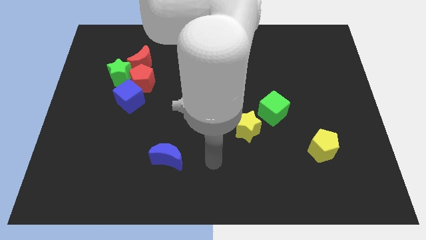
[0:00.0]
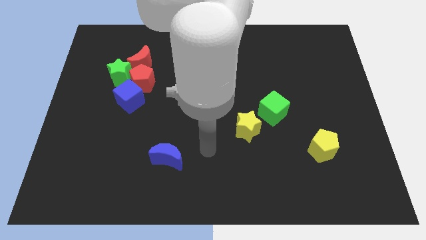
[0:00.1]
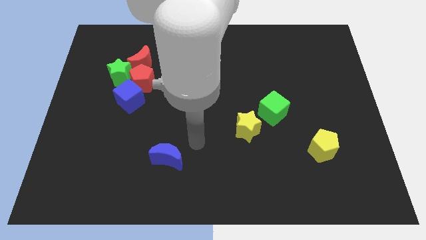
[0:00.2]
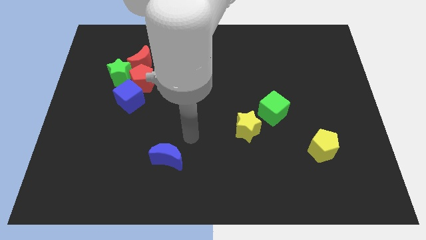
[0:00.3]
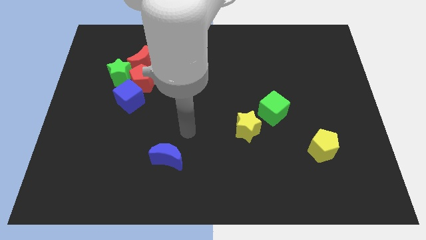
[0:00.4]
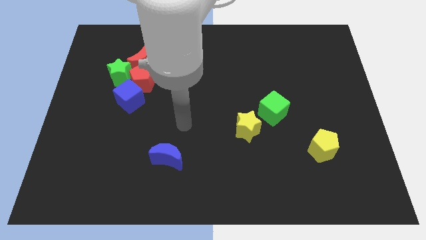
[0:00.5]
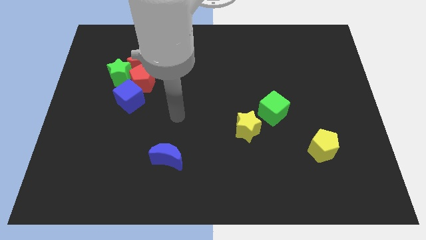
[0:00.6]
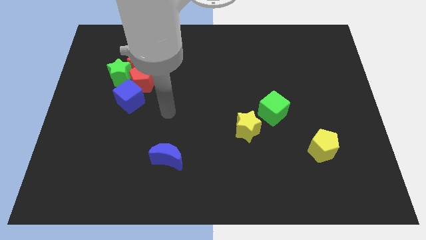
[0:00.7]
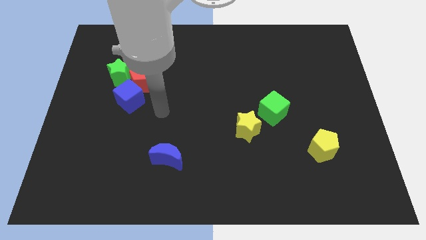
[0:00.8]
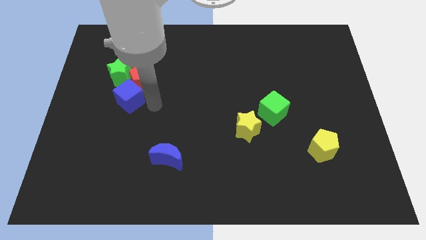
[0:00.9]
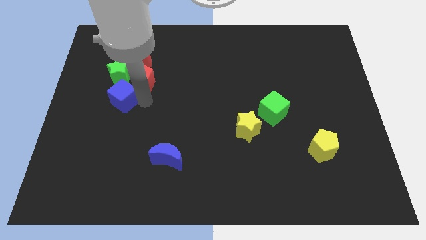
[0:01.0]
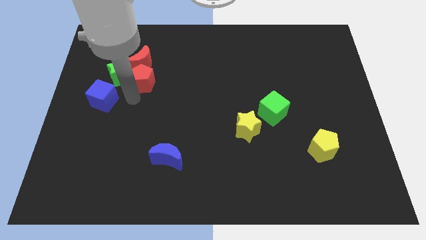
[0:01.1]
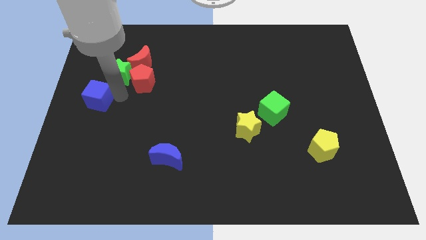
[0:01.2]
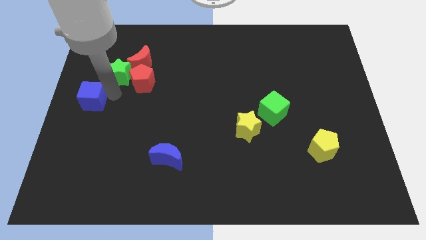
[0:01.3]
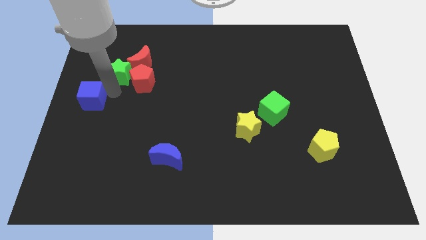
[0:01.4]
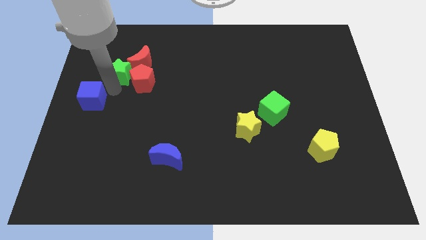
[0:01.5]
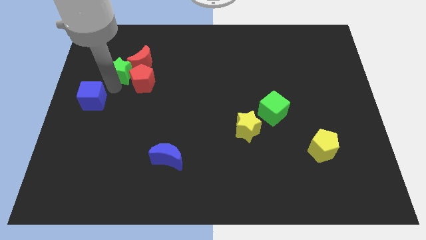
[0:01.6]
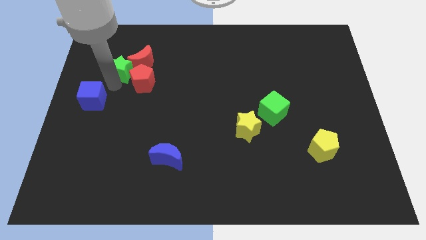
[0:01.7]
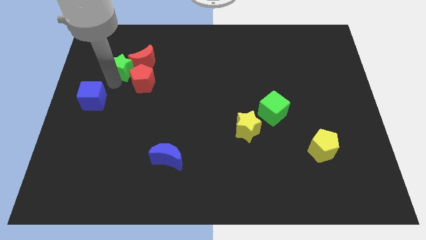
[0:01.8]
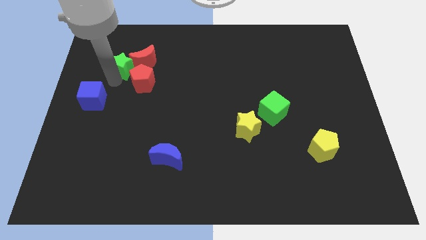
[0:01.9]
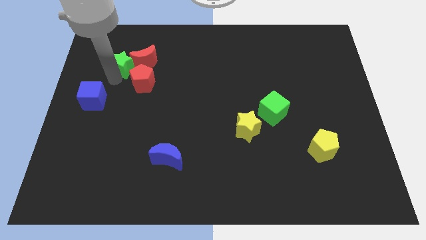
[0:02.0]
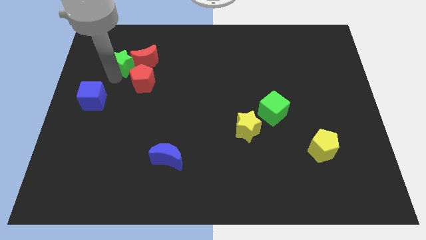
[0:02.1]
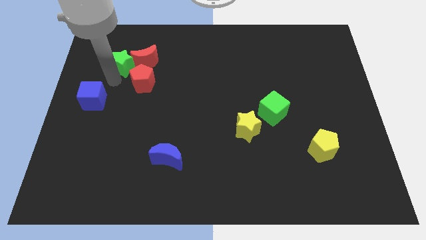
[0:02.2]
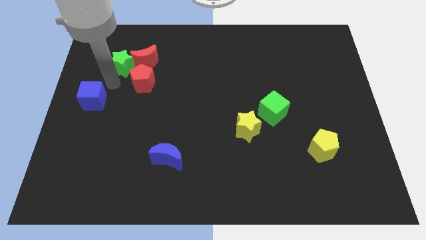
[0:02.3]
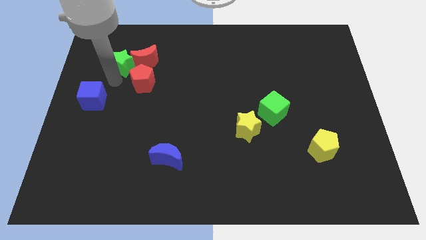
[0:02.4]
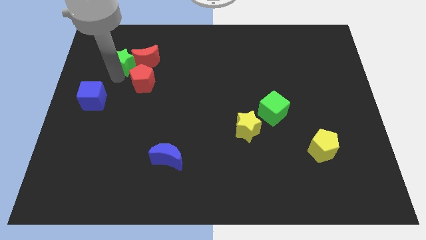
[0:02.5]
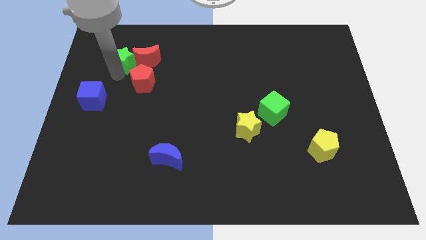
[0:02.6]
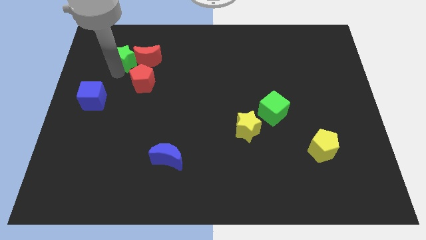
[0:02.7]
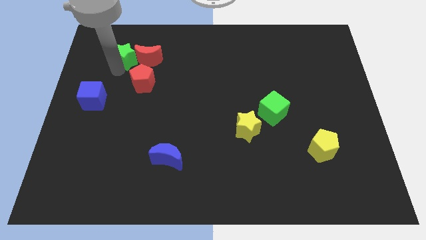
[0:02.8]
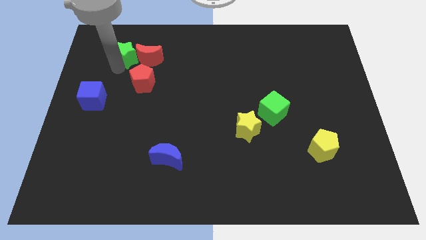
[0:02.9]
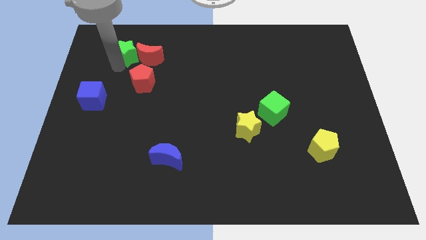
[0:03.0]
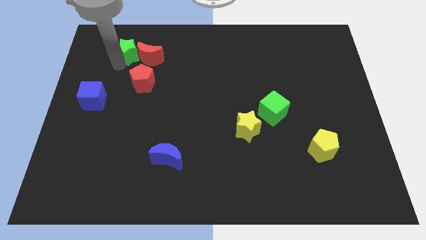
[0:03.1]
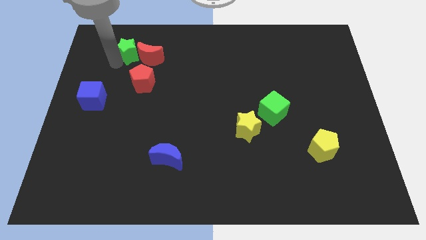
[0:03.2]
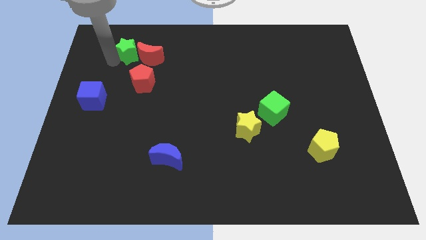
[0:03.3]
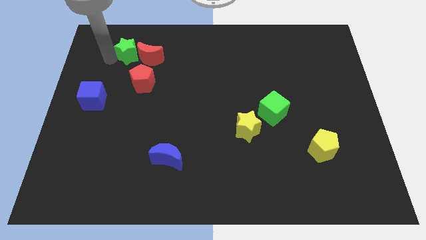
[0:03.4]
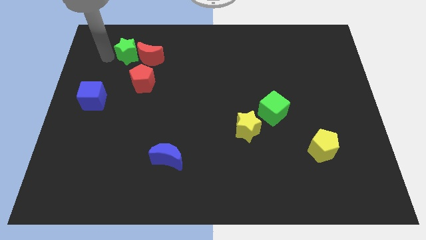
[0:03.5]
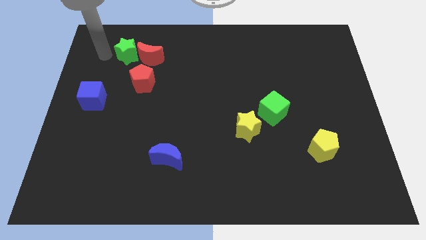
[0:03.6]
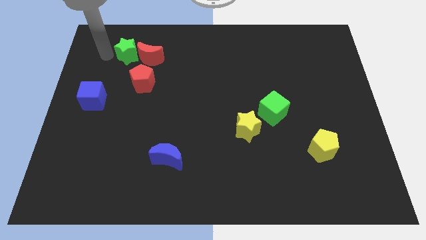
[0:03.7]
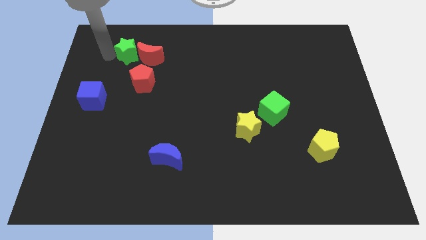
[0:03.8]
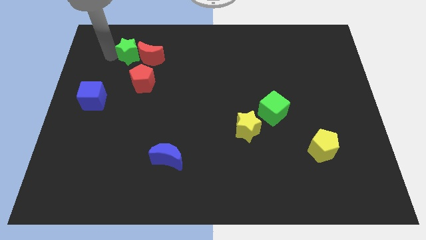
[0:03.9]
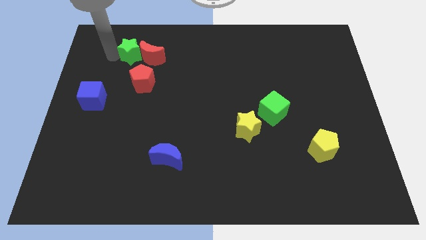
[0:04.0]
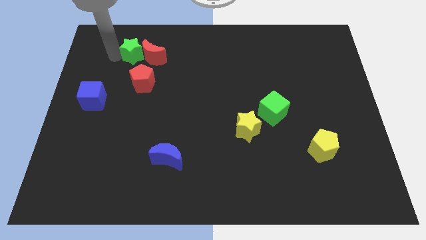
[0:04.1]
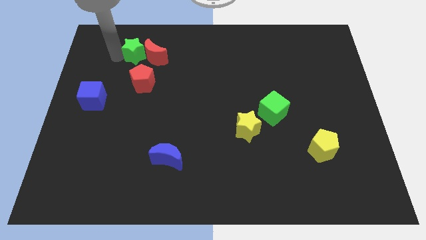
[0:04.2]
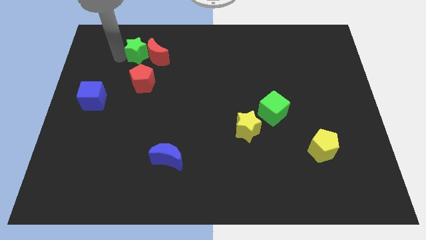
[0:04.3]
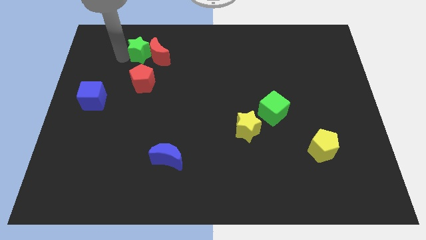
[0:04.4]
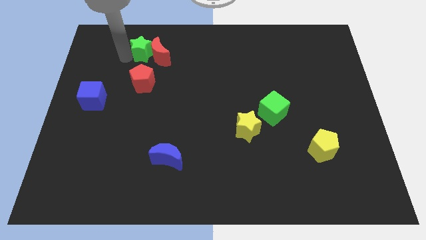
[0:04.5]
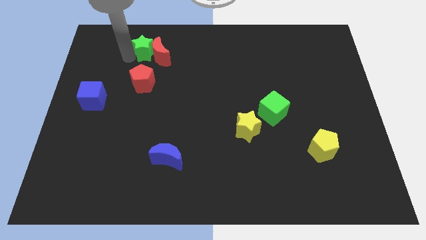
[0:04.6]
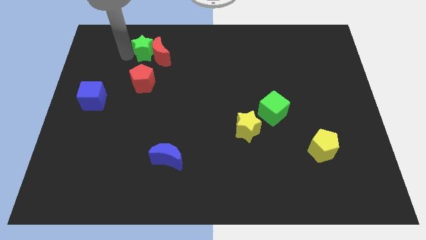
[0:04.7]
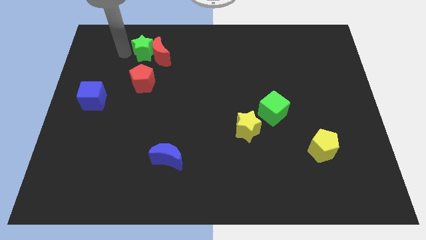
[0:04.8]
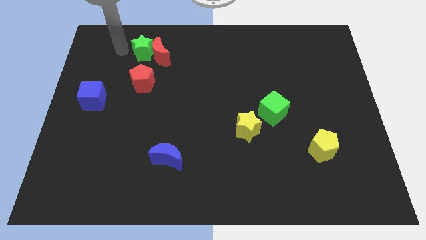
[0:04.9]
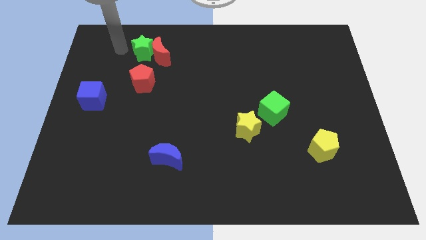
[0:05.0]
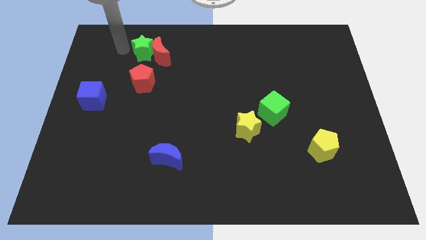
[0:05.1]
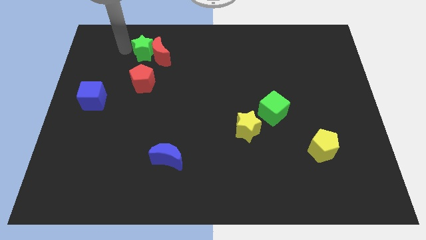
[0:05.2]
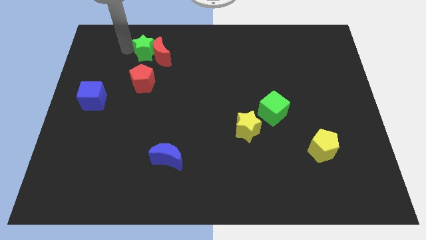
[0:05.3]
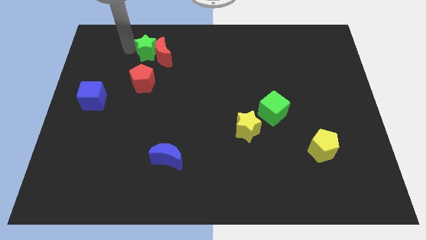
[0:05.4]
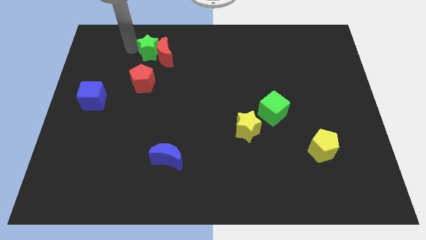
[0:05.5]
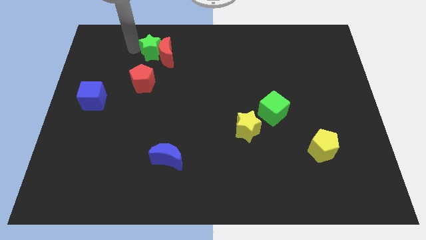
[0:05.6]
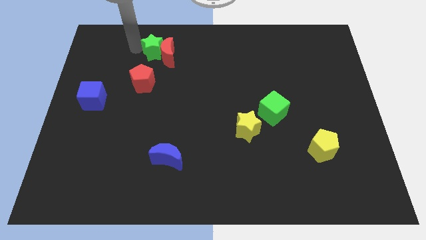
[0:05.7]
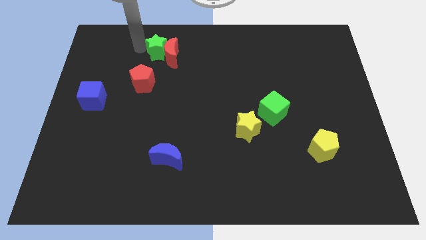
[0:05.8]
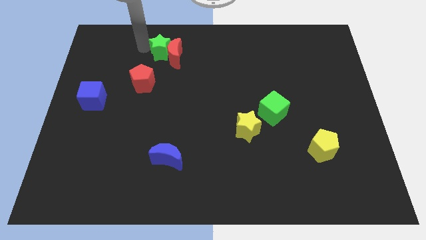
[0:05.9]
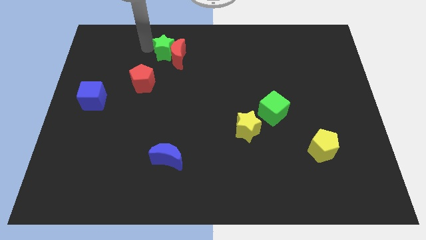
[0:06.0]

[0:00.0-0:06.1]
slide the green star right slightly

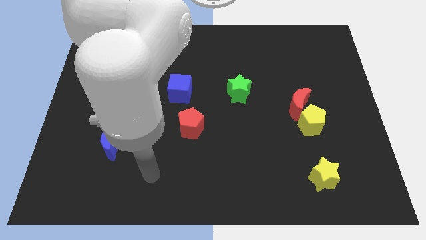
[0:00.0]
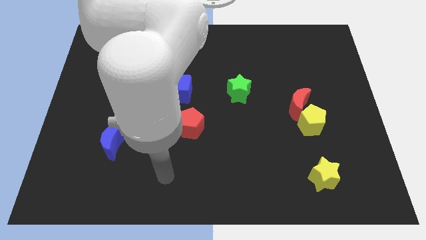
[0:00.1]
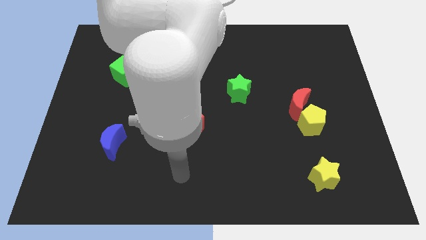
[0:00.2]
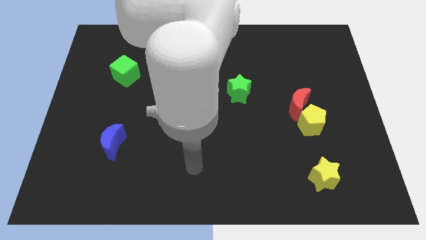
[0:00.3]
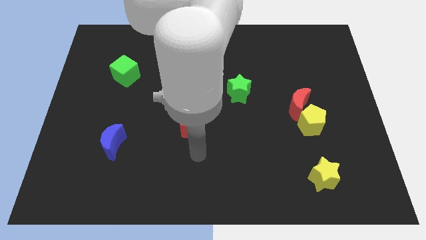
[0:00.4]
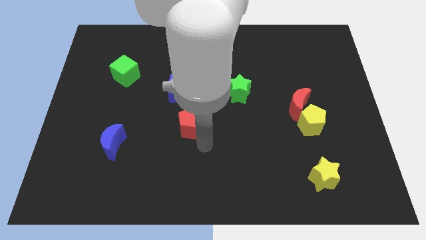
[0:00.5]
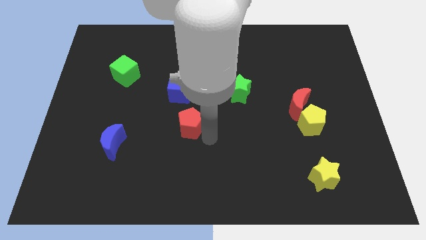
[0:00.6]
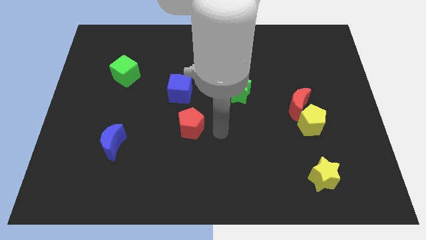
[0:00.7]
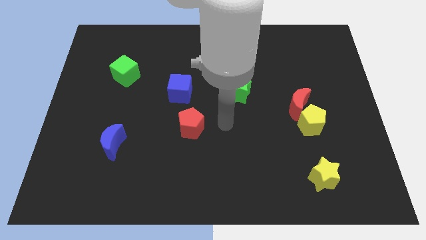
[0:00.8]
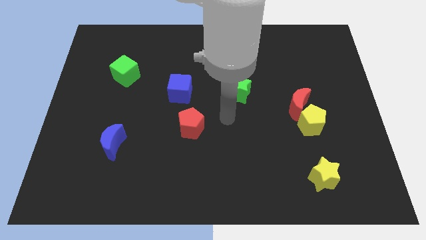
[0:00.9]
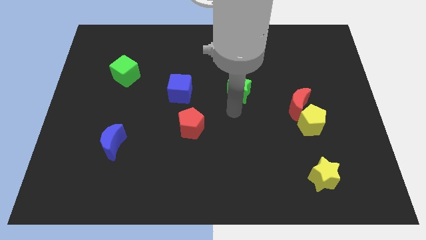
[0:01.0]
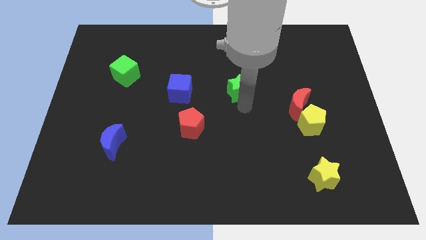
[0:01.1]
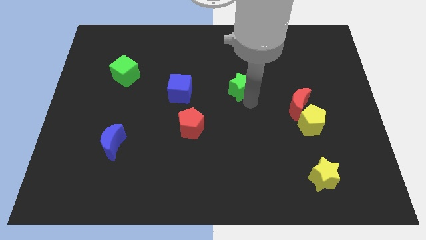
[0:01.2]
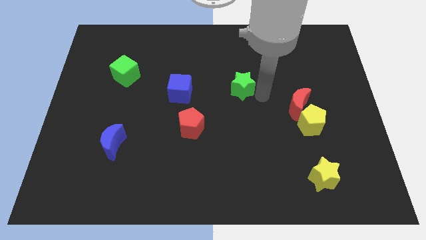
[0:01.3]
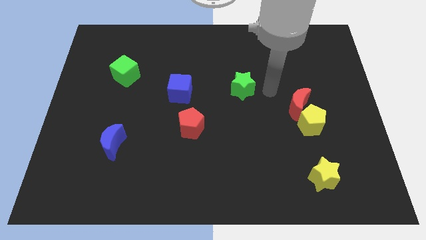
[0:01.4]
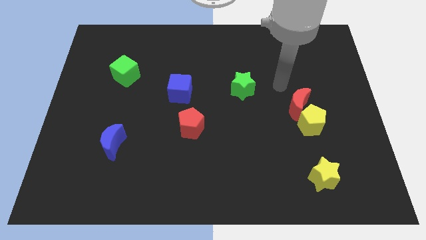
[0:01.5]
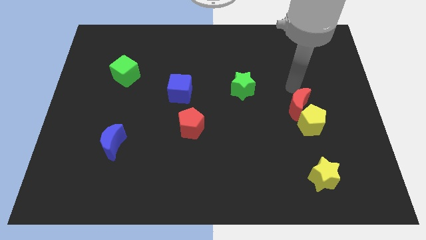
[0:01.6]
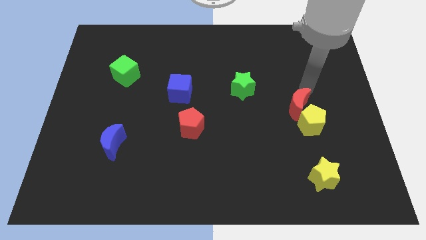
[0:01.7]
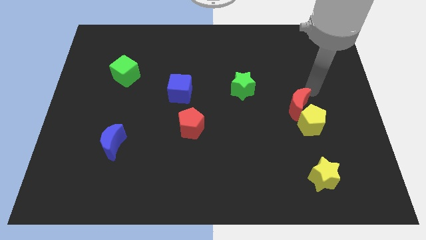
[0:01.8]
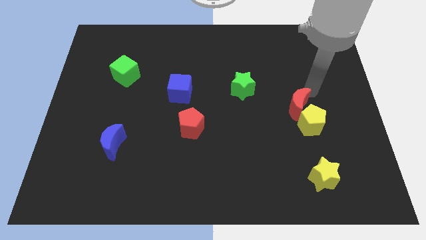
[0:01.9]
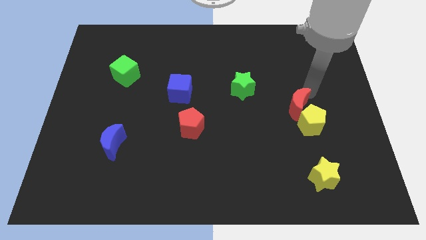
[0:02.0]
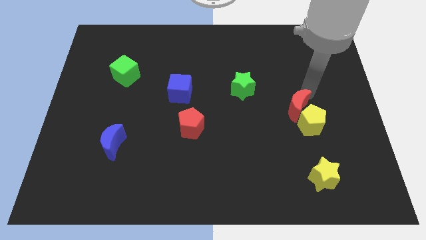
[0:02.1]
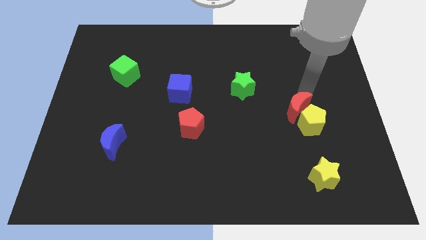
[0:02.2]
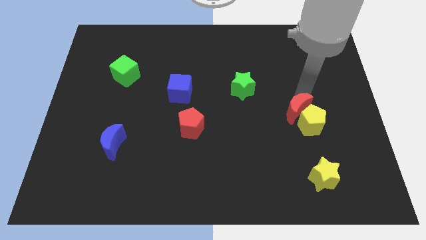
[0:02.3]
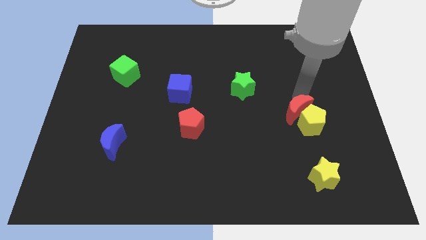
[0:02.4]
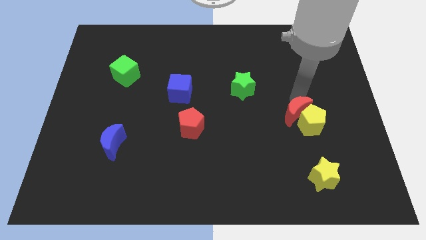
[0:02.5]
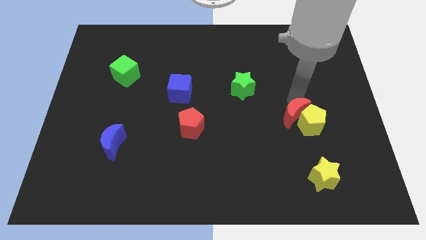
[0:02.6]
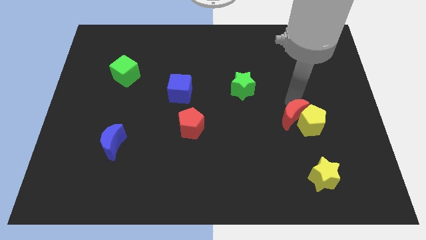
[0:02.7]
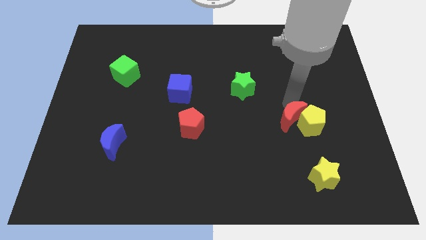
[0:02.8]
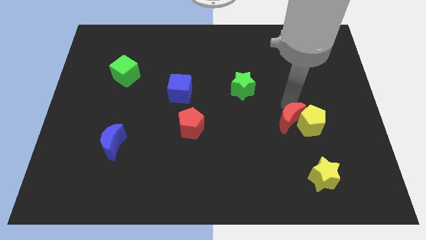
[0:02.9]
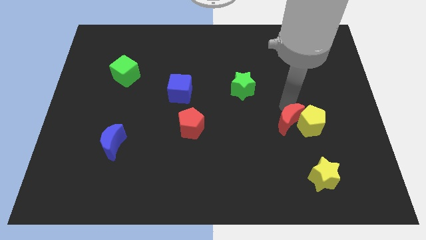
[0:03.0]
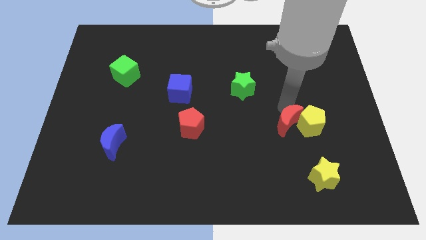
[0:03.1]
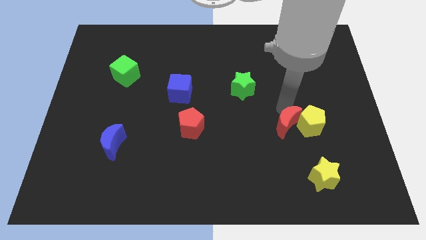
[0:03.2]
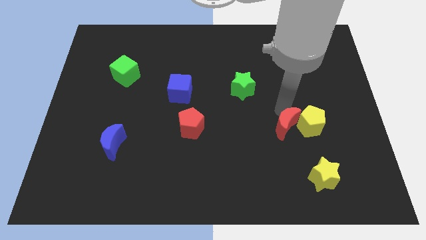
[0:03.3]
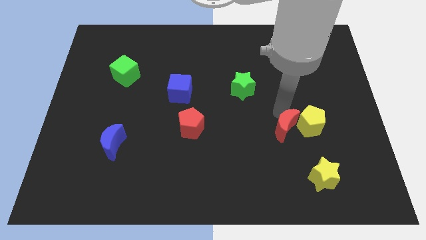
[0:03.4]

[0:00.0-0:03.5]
push the red moon a little downwards and to the left diagonally
